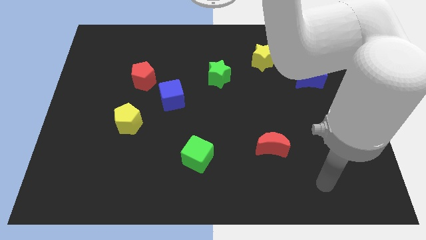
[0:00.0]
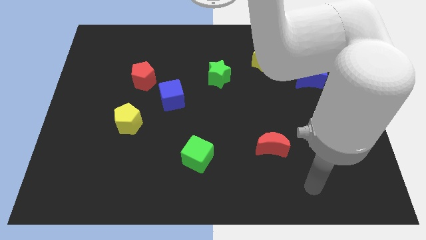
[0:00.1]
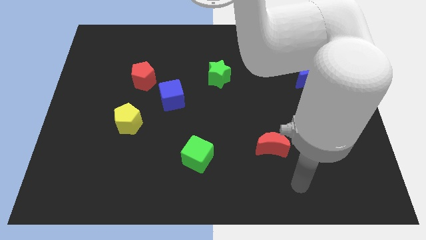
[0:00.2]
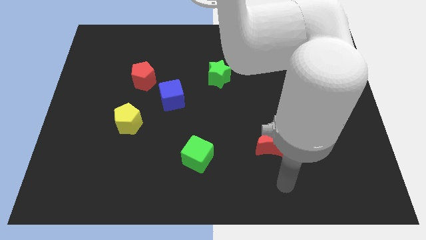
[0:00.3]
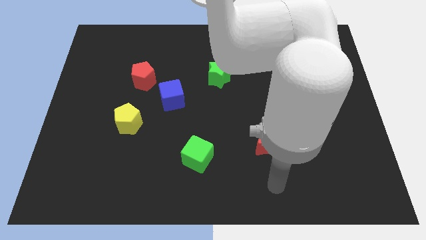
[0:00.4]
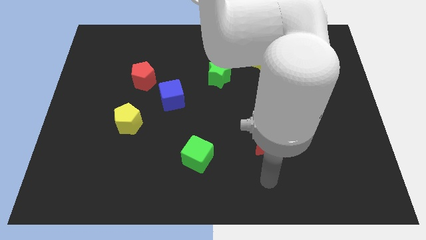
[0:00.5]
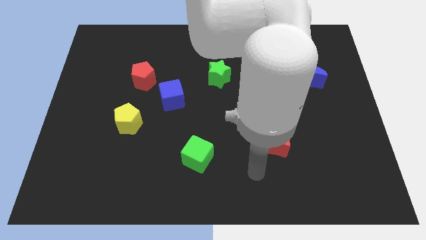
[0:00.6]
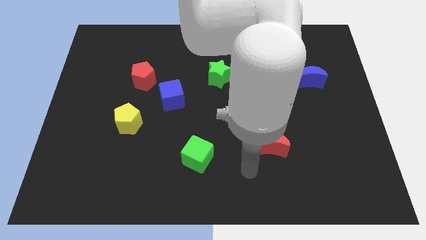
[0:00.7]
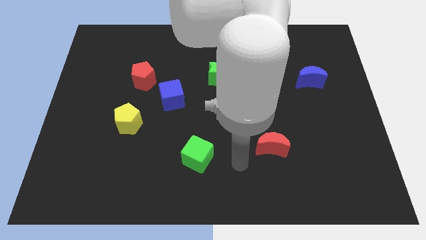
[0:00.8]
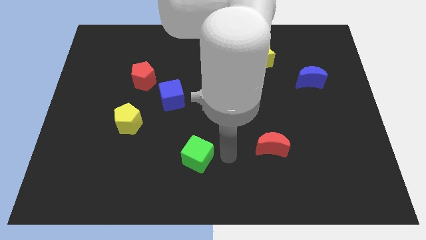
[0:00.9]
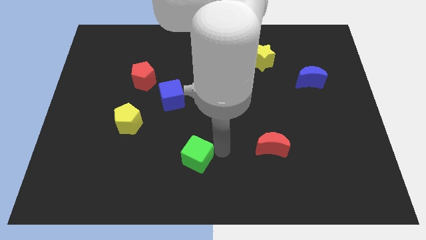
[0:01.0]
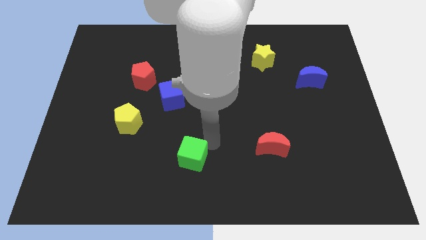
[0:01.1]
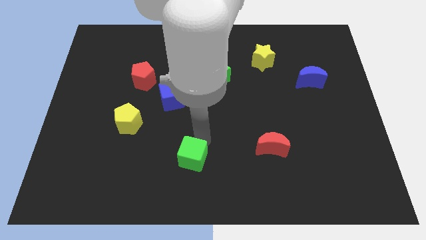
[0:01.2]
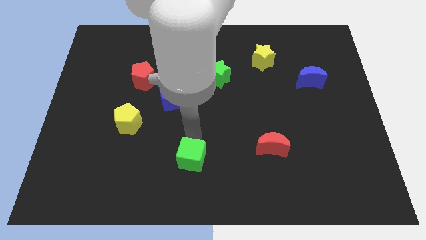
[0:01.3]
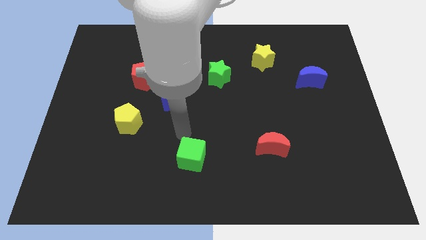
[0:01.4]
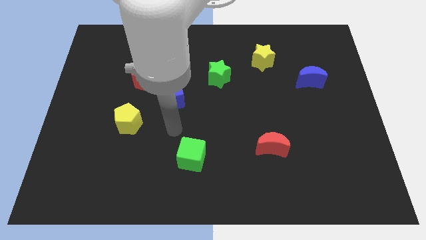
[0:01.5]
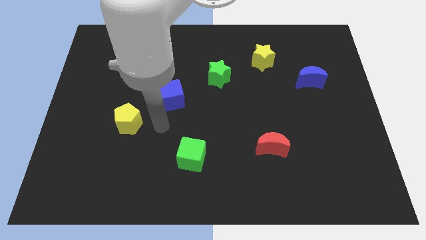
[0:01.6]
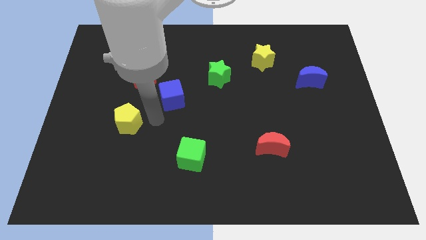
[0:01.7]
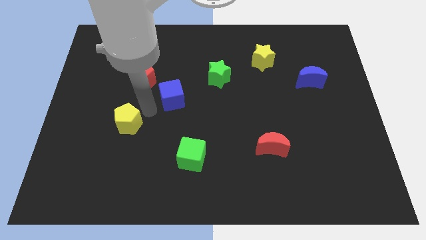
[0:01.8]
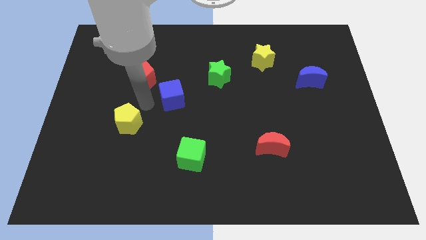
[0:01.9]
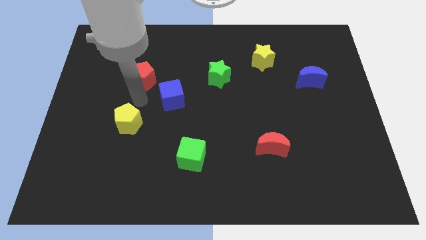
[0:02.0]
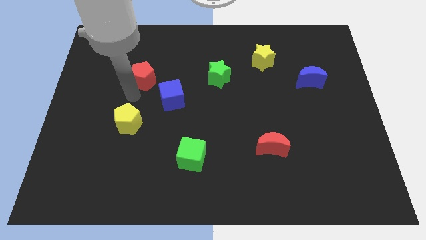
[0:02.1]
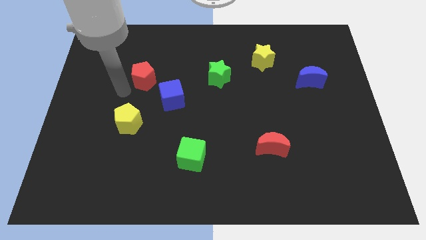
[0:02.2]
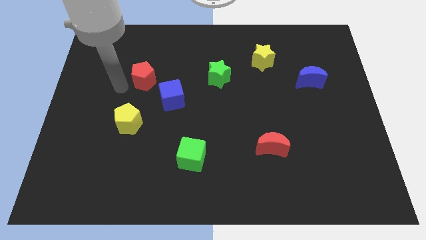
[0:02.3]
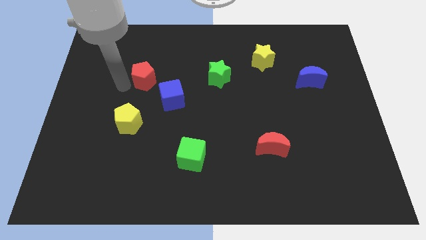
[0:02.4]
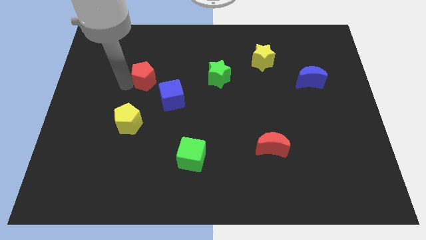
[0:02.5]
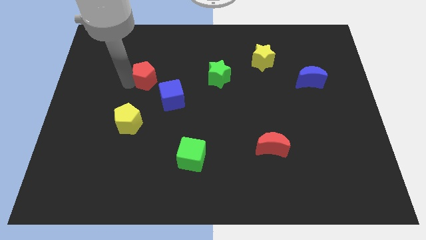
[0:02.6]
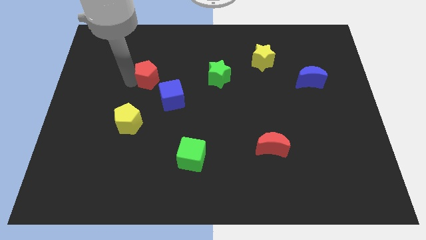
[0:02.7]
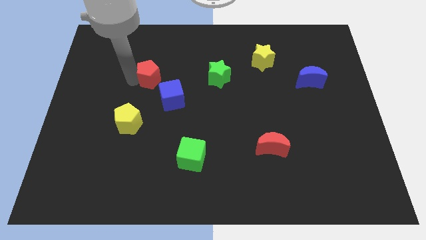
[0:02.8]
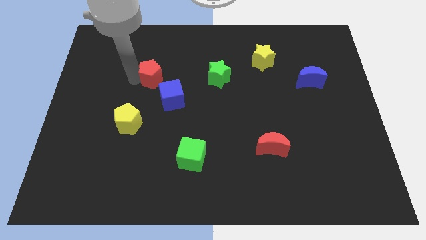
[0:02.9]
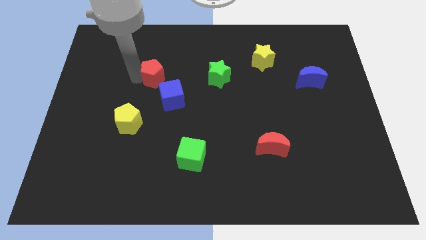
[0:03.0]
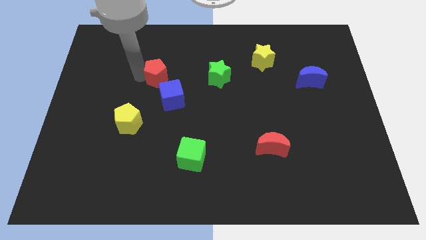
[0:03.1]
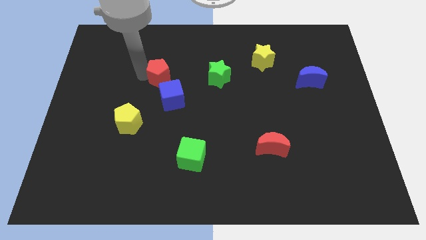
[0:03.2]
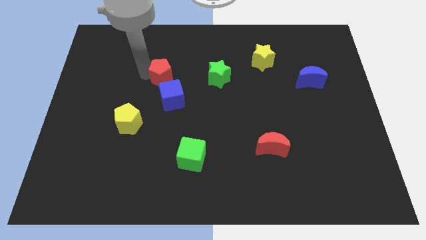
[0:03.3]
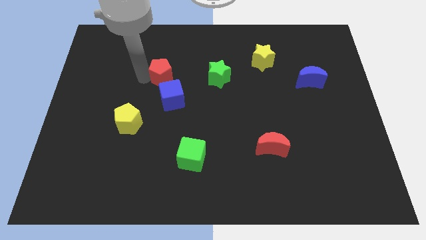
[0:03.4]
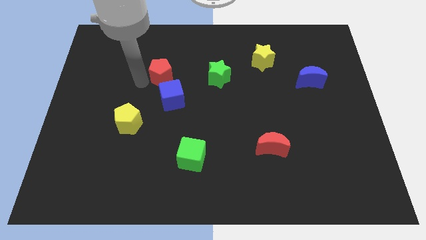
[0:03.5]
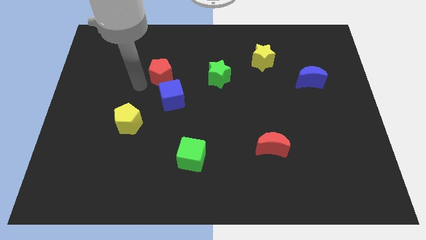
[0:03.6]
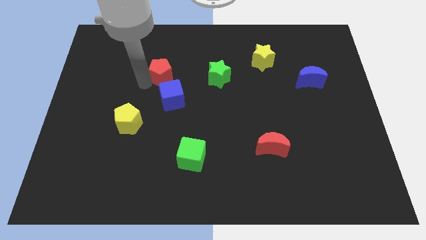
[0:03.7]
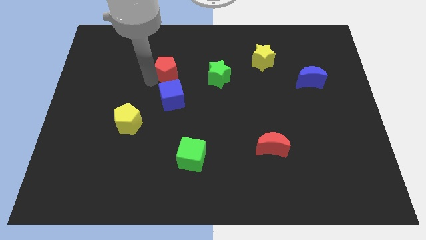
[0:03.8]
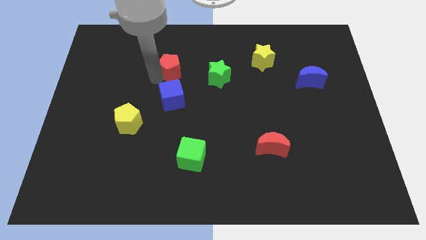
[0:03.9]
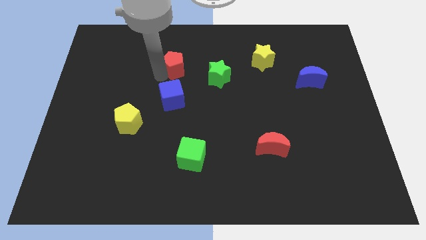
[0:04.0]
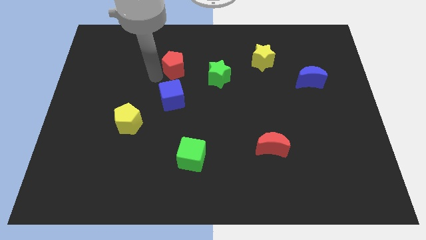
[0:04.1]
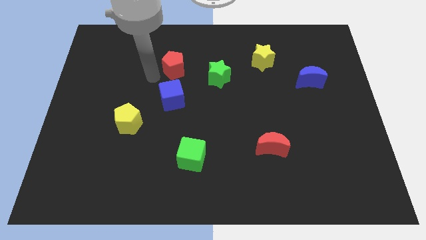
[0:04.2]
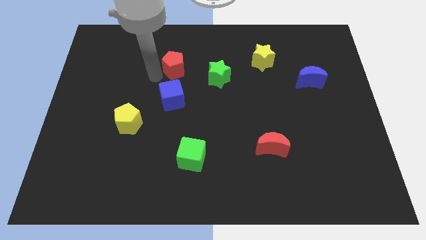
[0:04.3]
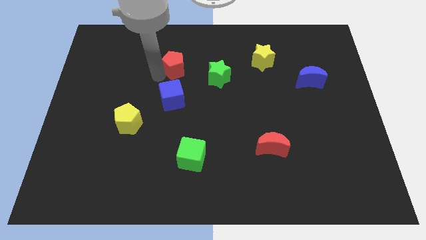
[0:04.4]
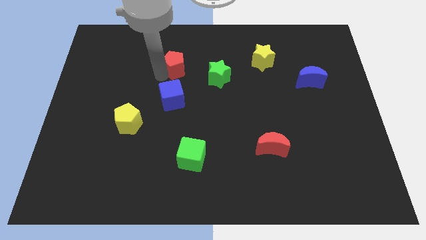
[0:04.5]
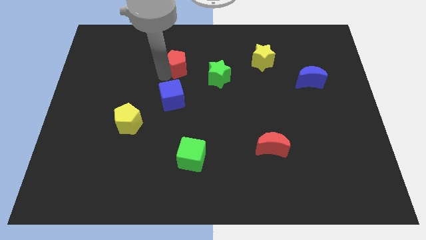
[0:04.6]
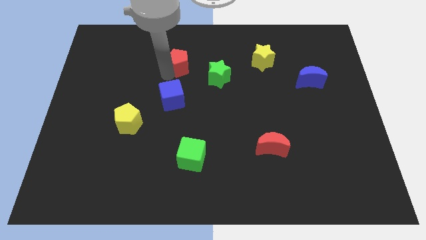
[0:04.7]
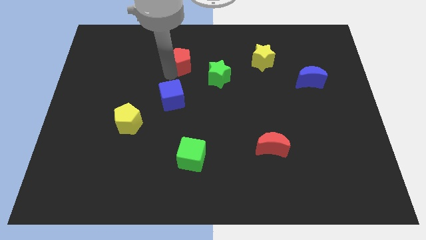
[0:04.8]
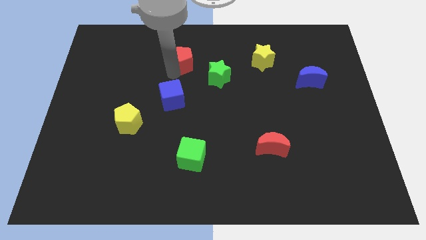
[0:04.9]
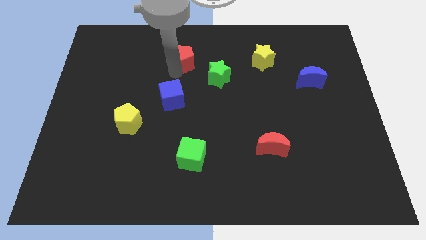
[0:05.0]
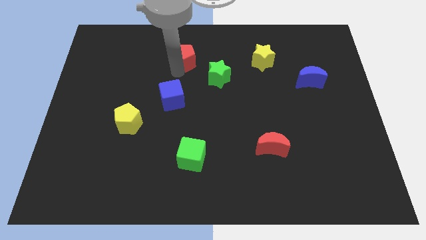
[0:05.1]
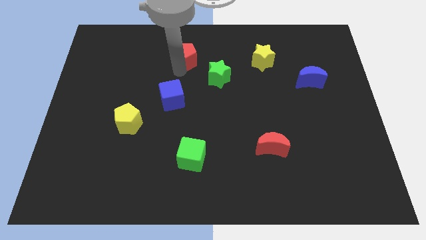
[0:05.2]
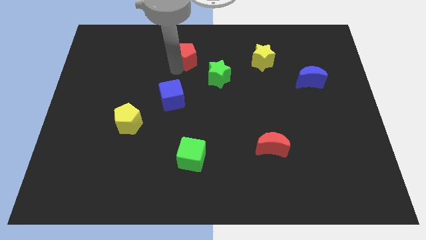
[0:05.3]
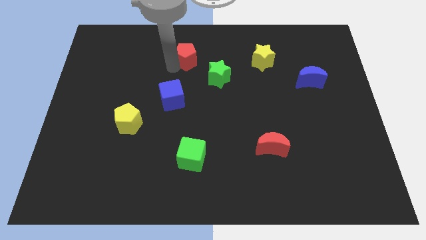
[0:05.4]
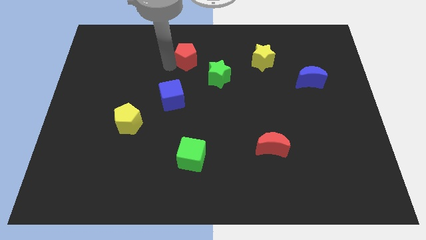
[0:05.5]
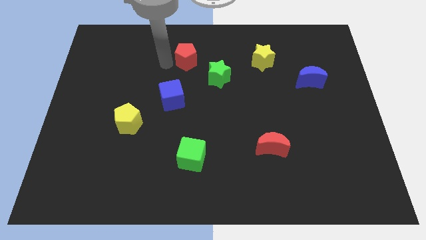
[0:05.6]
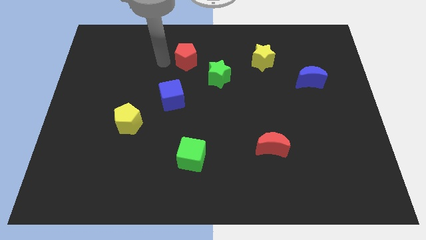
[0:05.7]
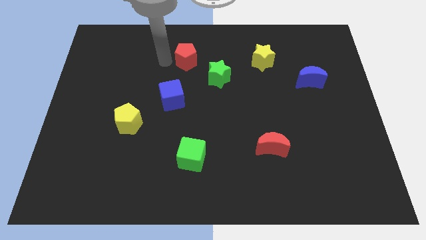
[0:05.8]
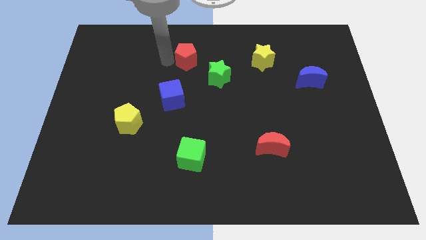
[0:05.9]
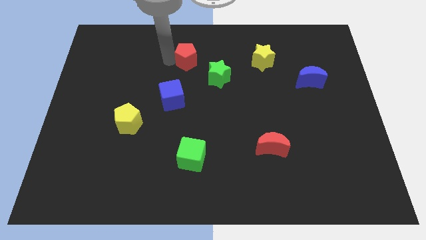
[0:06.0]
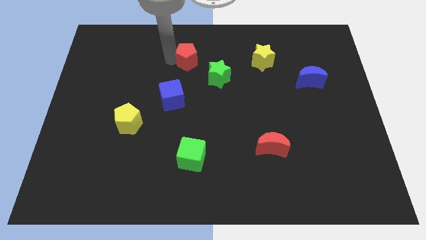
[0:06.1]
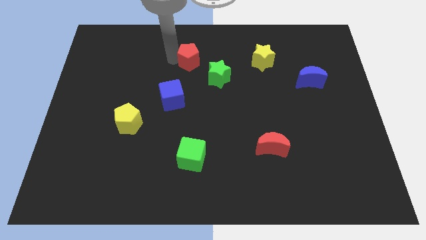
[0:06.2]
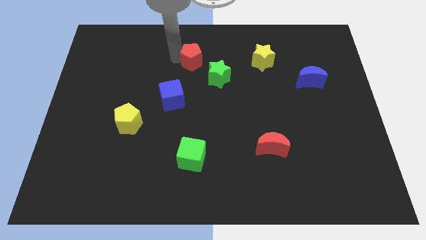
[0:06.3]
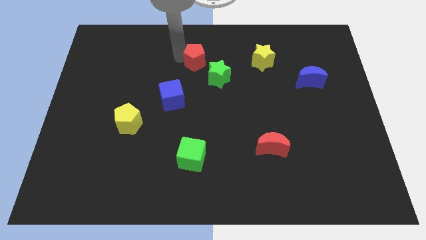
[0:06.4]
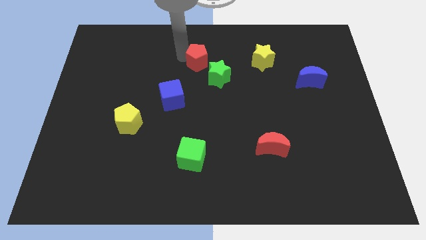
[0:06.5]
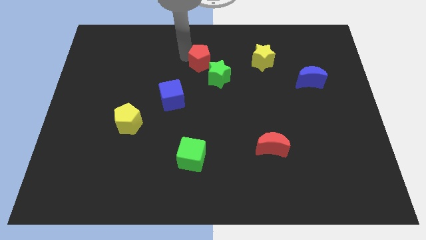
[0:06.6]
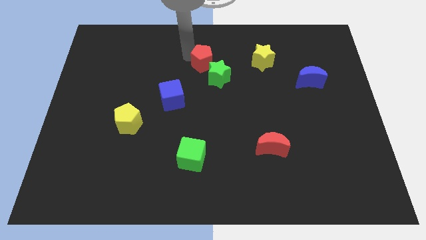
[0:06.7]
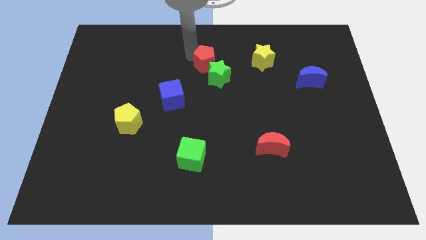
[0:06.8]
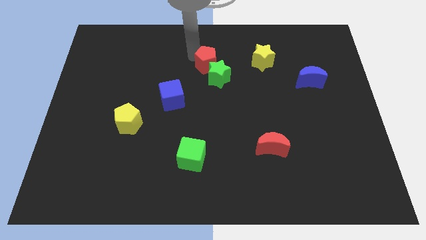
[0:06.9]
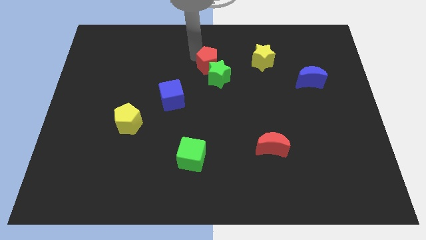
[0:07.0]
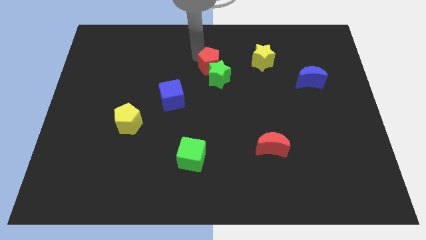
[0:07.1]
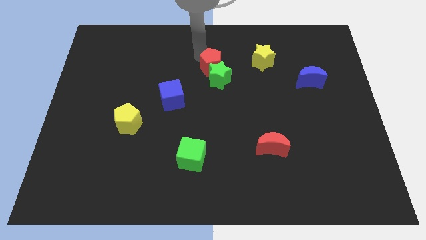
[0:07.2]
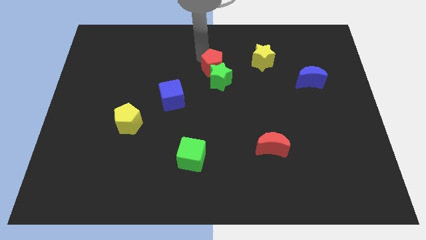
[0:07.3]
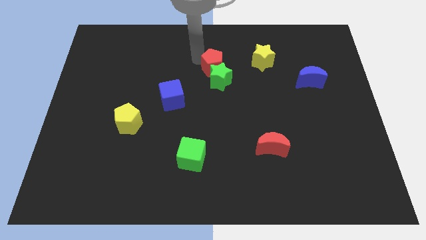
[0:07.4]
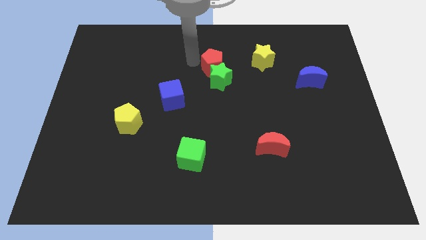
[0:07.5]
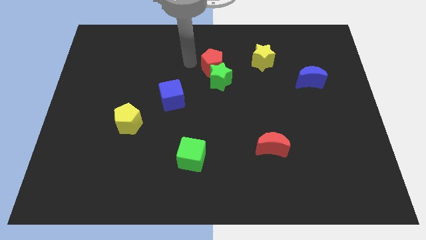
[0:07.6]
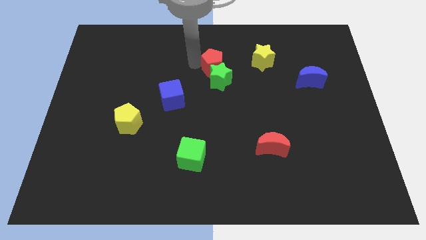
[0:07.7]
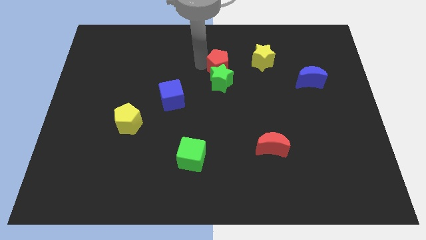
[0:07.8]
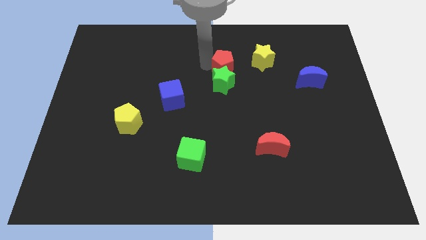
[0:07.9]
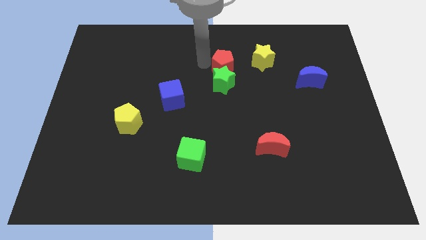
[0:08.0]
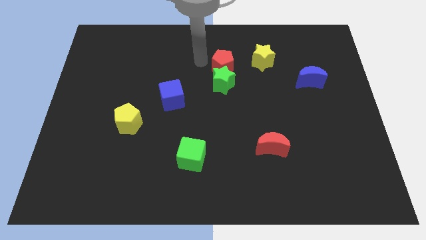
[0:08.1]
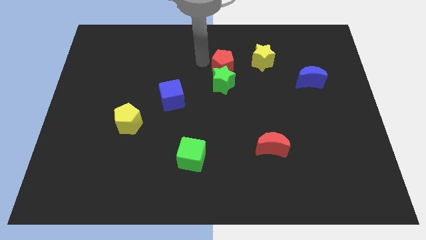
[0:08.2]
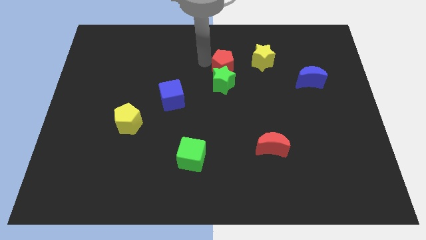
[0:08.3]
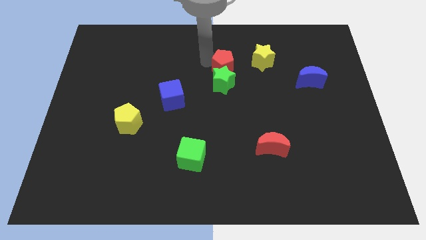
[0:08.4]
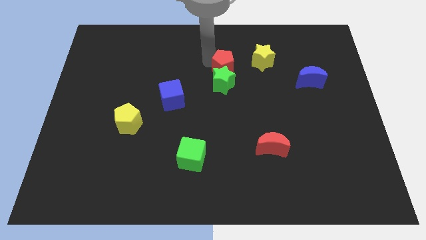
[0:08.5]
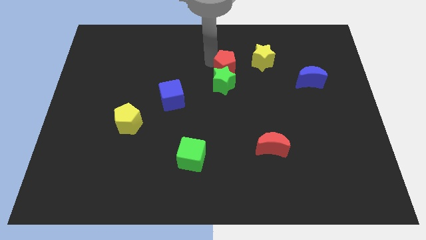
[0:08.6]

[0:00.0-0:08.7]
push the red pentagon right
